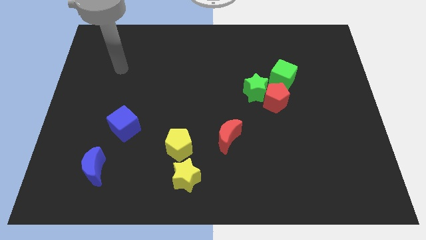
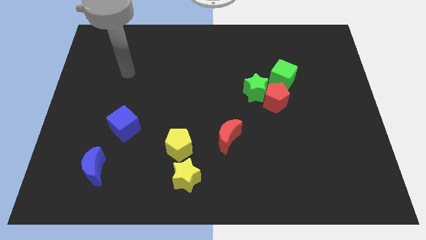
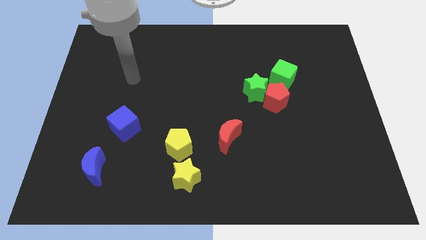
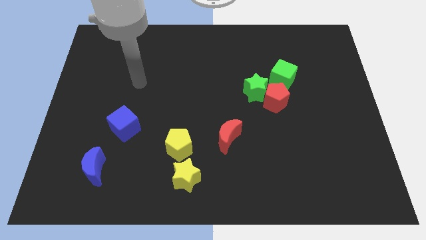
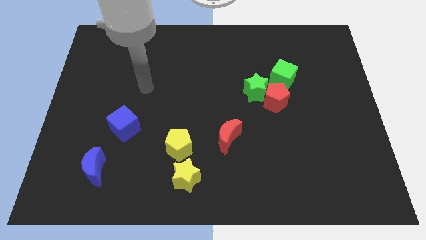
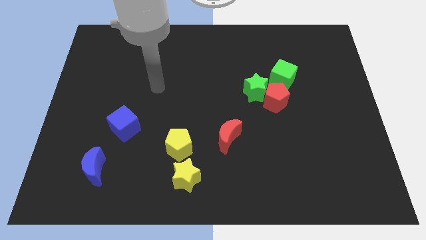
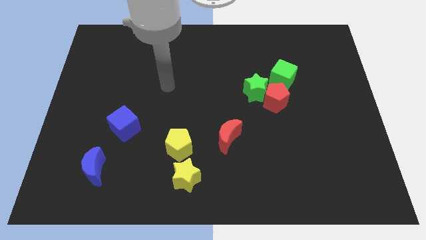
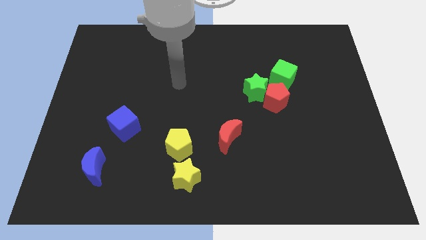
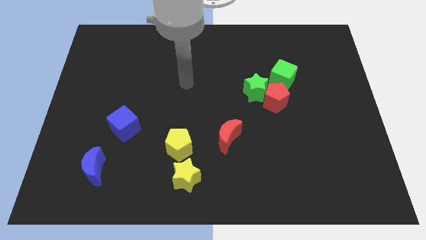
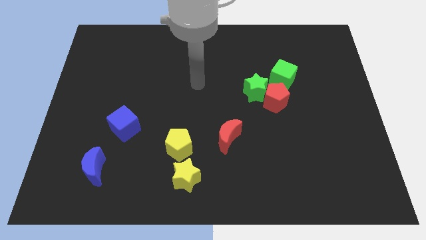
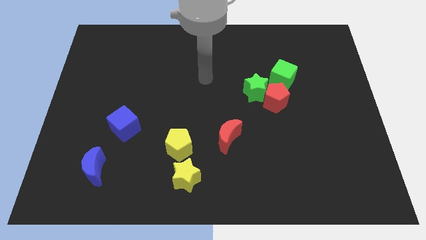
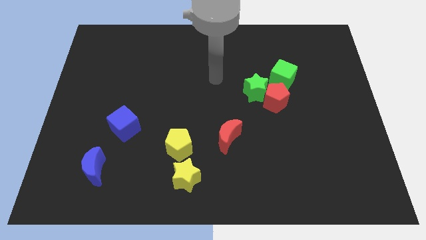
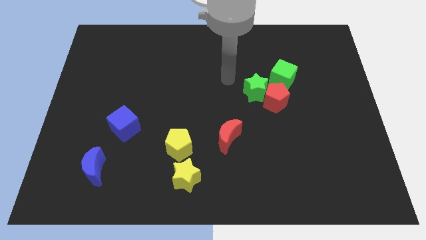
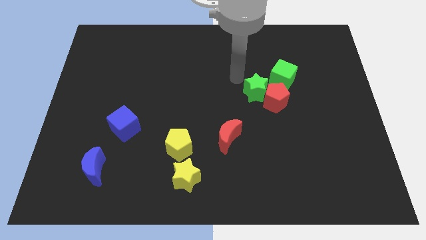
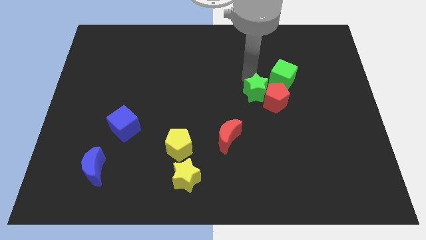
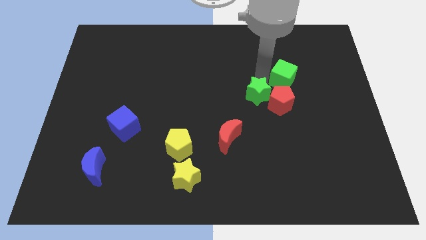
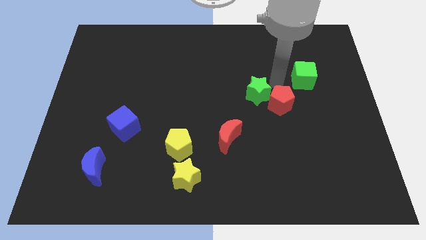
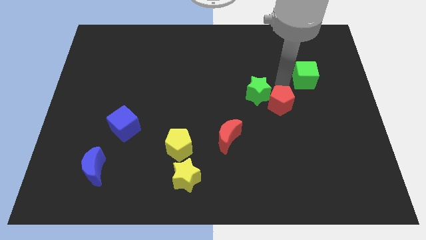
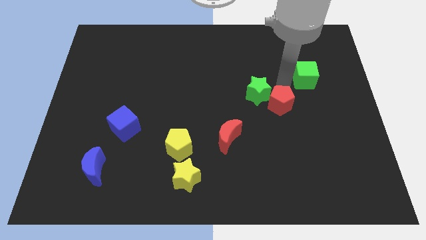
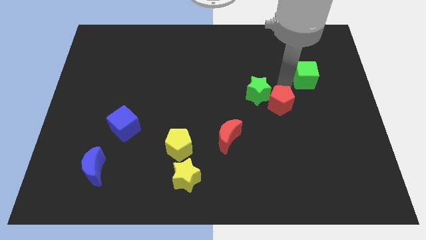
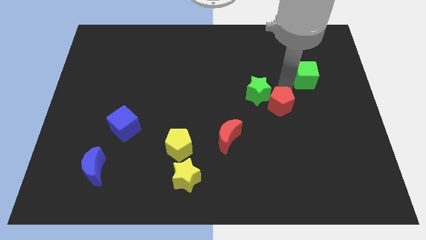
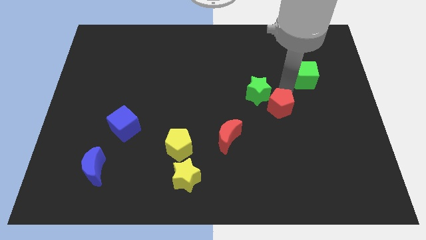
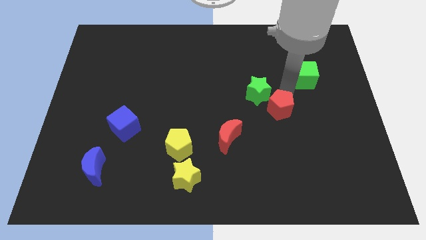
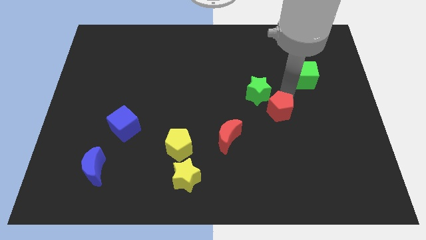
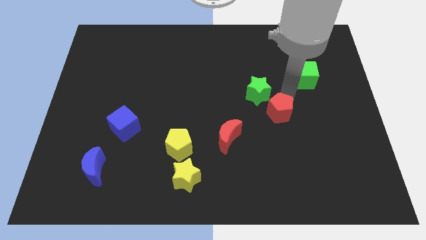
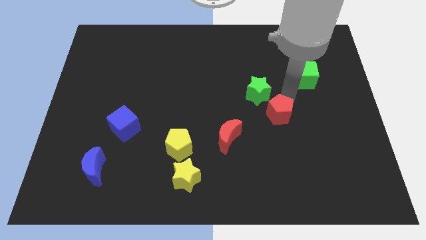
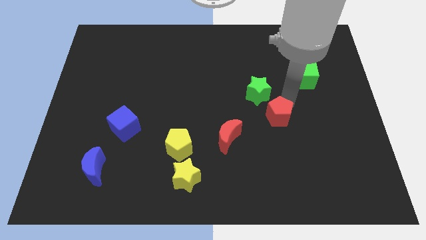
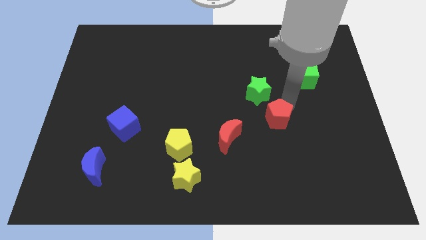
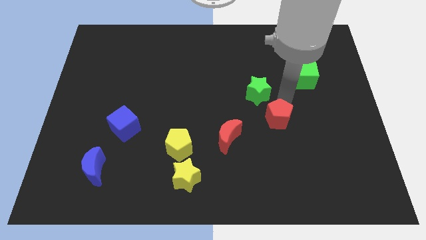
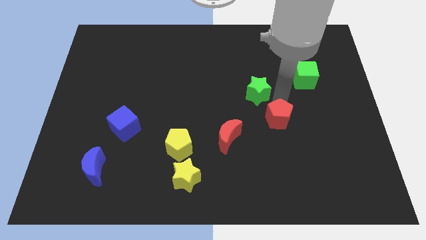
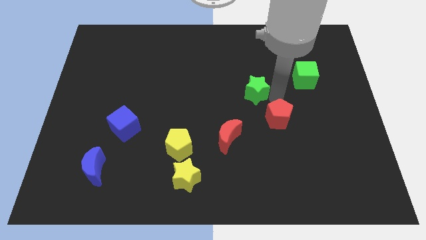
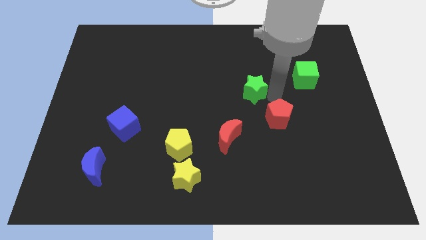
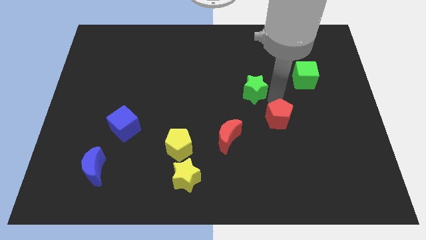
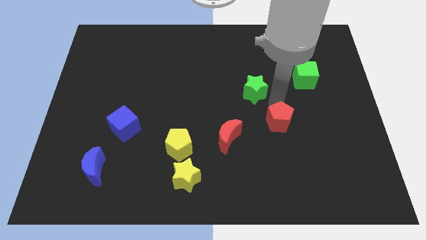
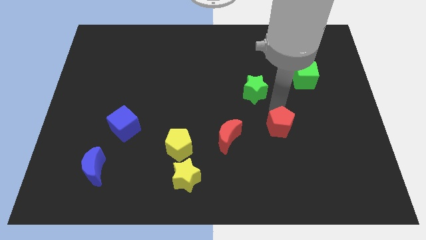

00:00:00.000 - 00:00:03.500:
slightly slide the red pentagon down

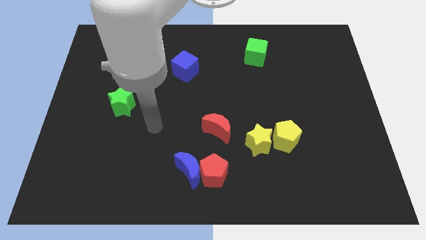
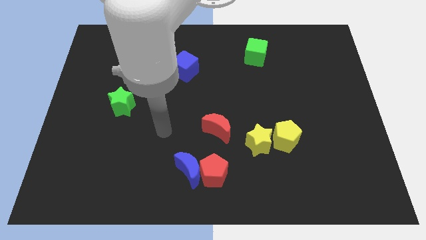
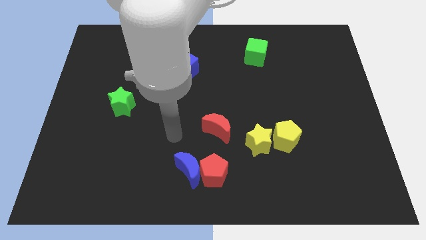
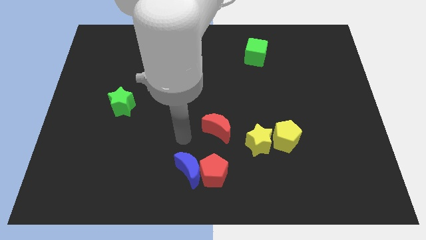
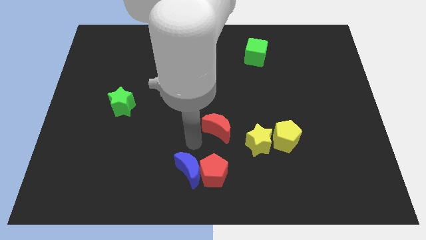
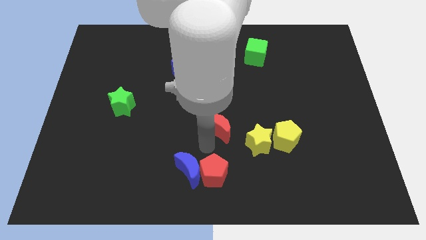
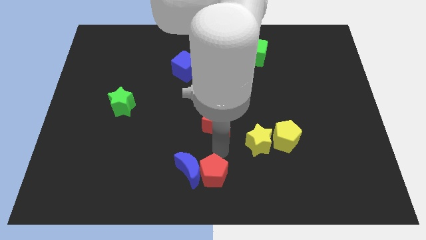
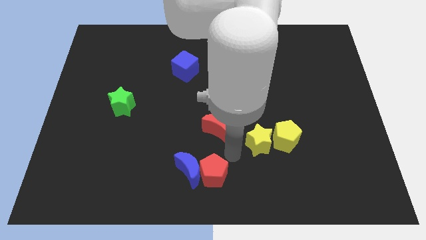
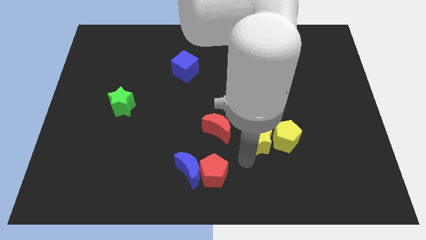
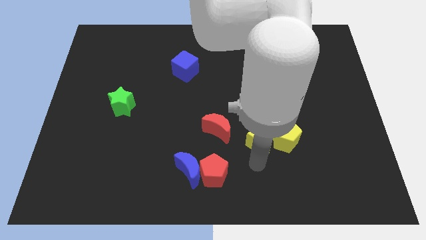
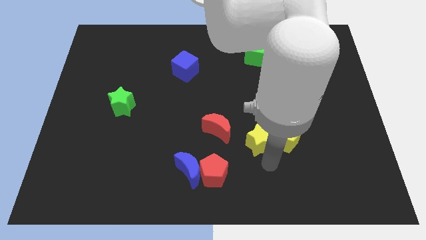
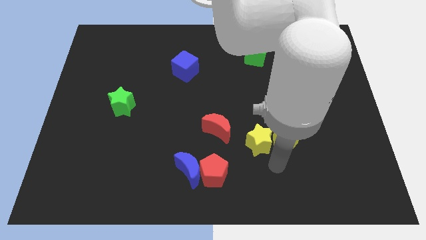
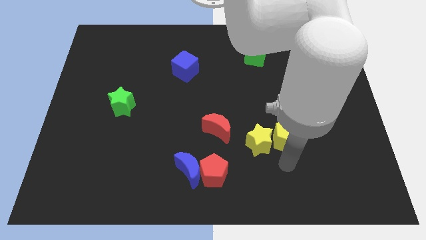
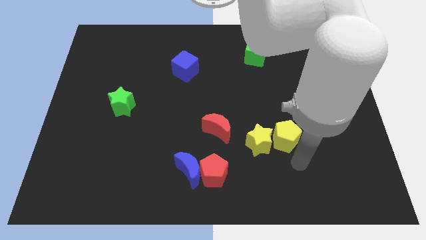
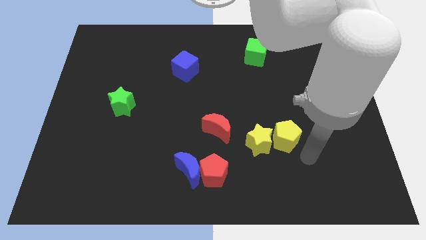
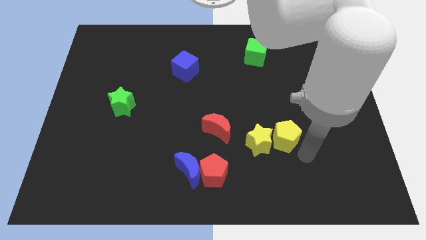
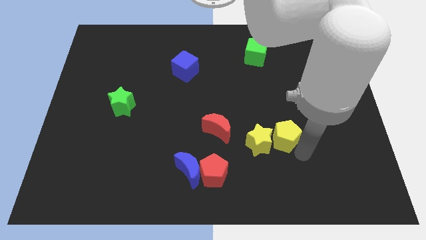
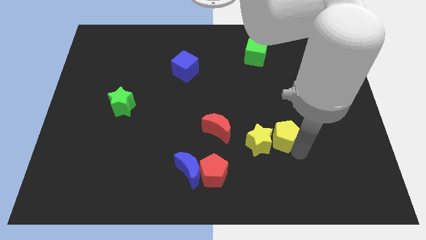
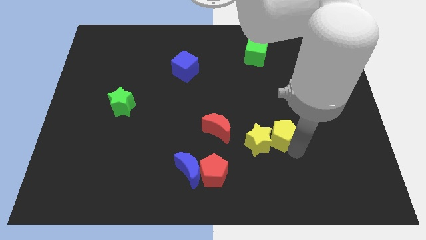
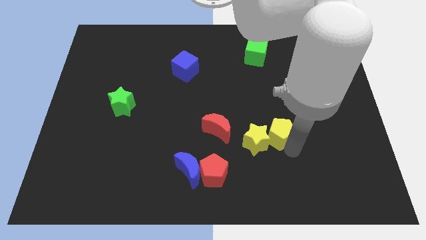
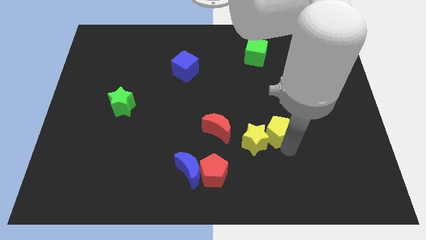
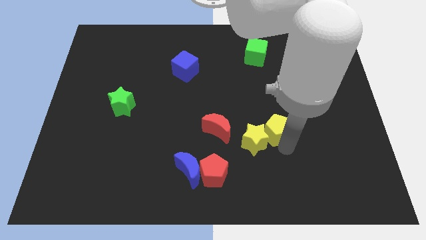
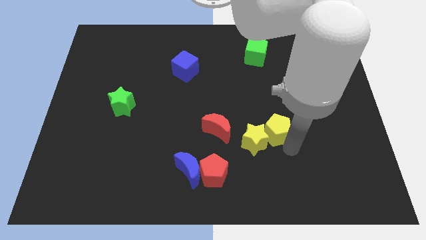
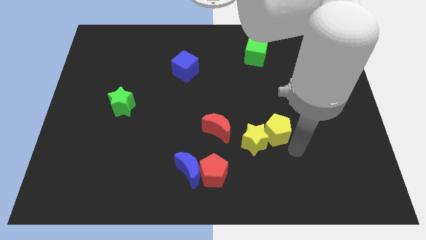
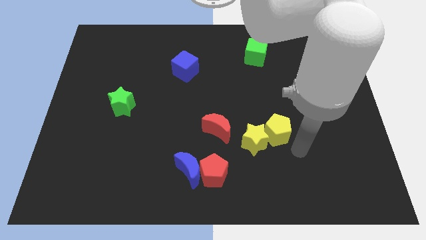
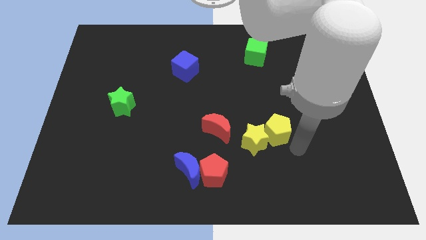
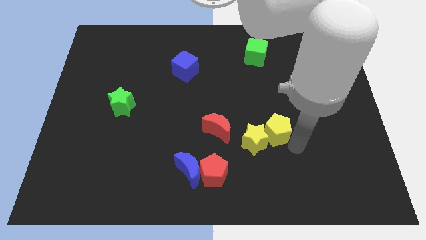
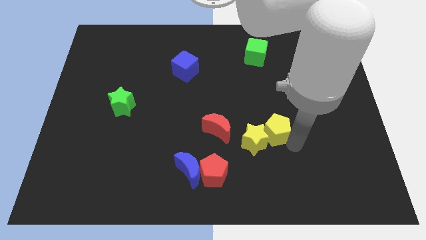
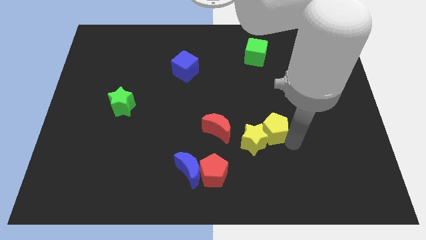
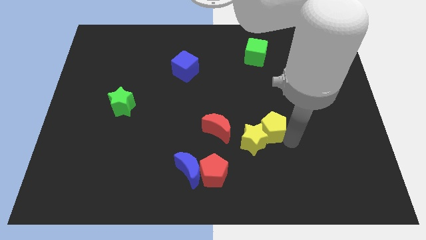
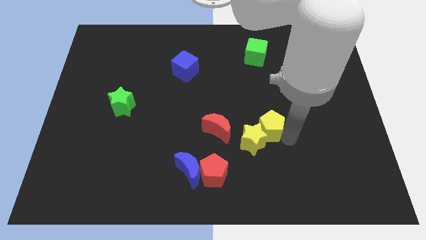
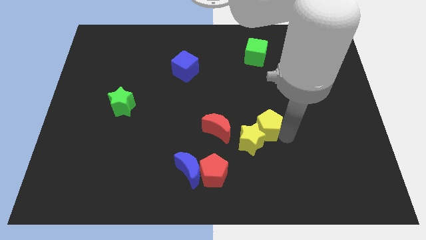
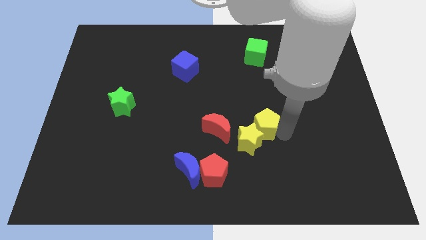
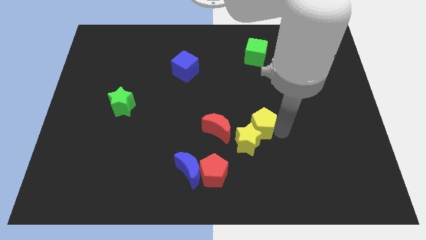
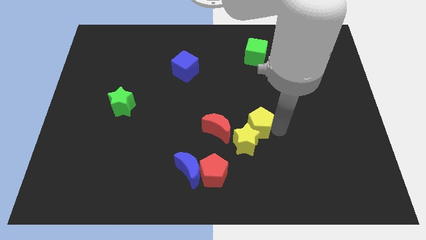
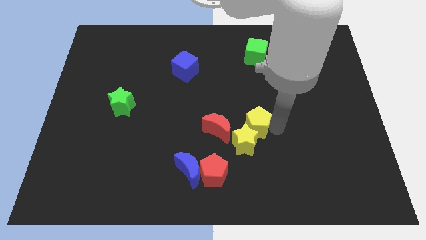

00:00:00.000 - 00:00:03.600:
move the yellow pentagon a bit diagonally up and left

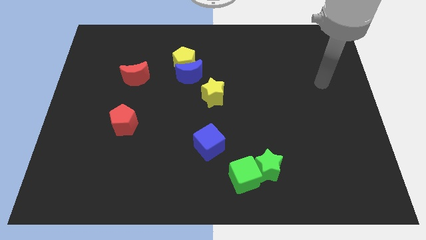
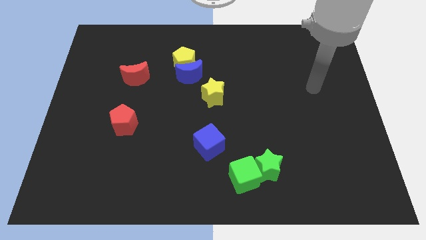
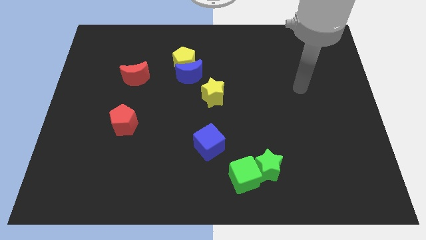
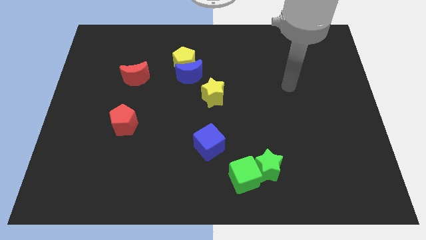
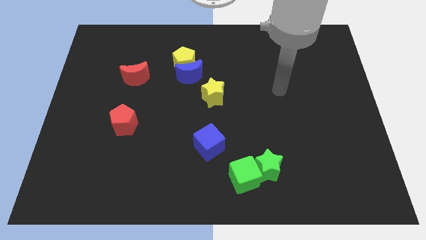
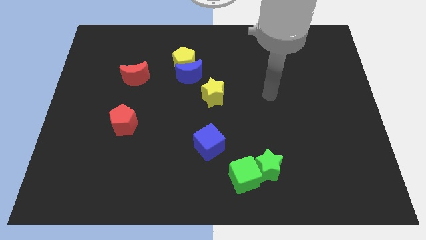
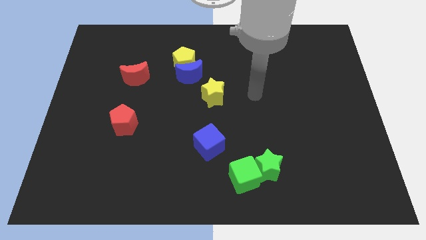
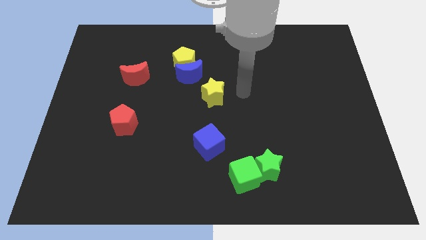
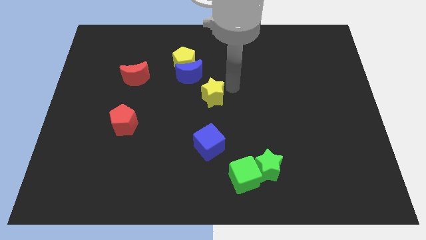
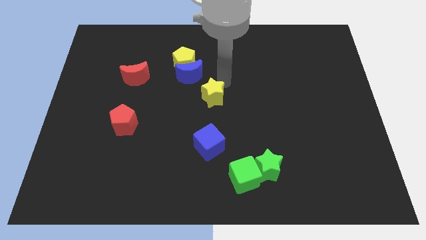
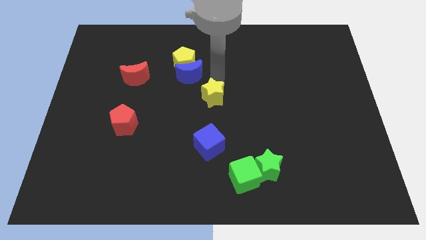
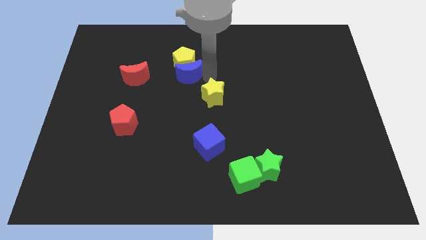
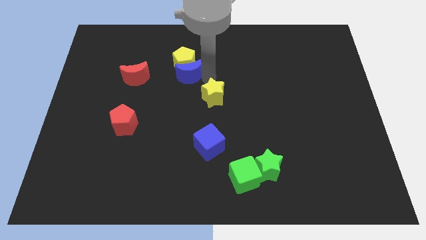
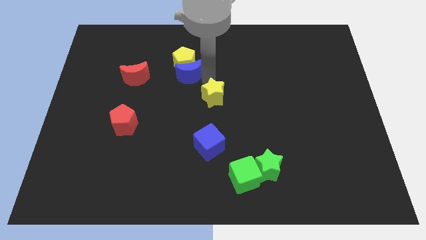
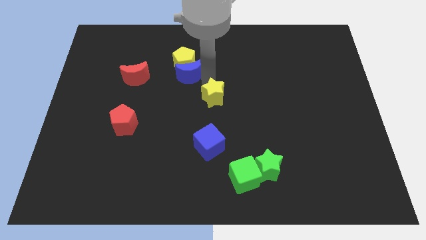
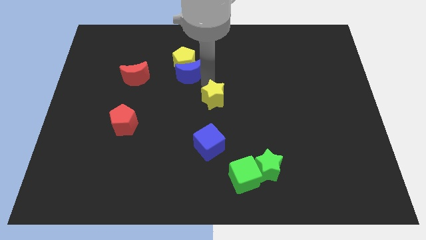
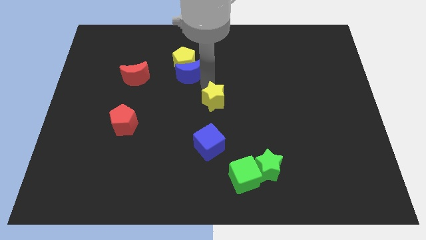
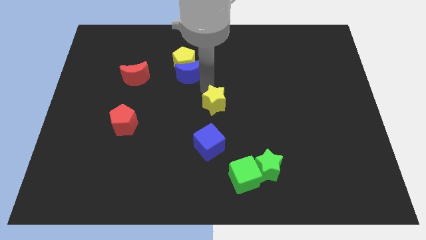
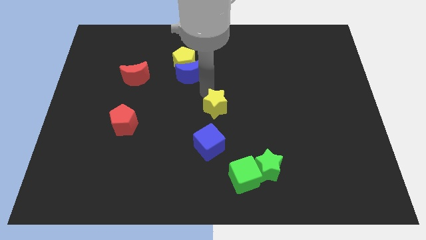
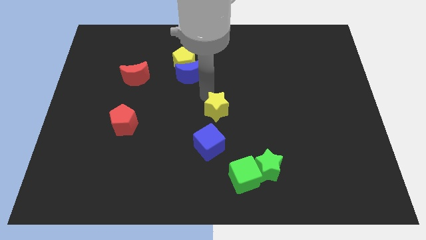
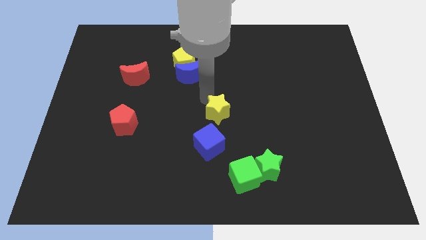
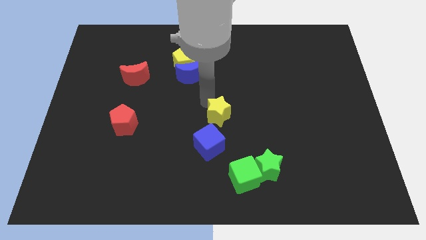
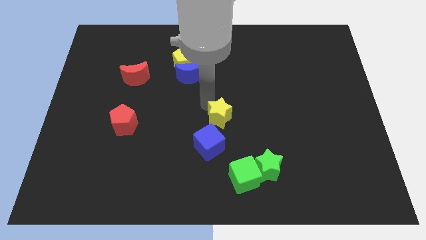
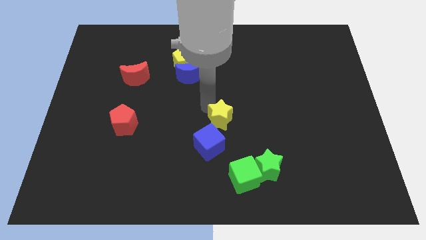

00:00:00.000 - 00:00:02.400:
move the yellow star downwards a little bit
